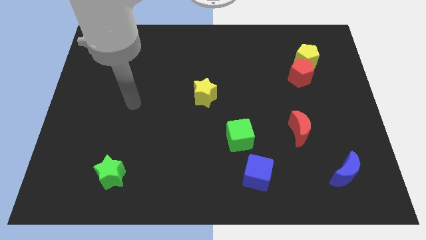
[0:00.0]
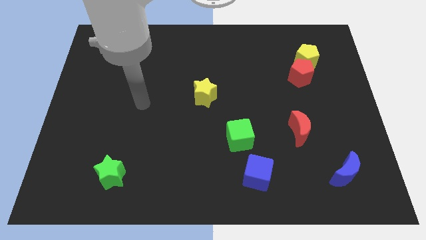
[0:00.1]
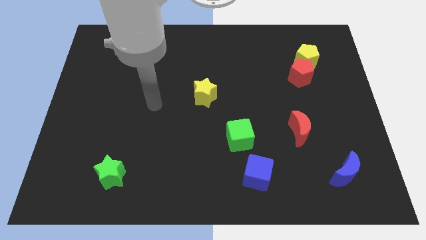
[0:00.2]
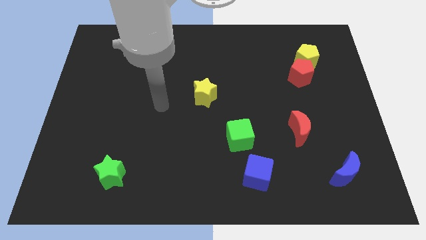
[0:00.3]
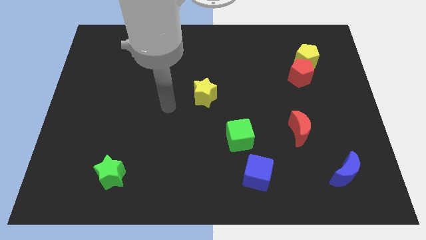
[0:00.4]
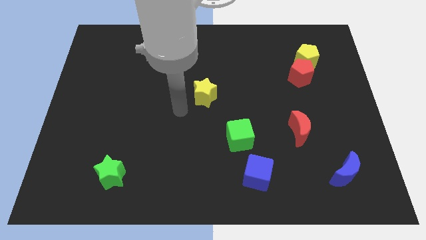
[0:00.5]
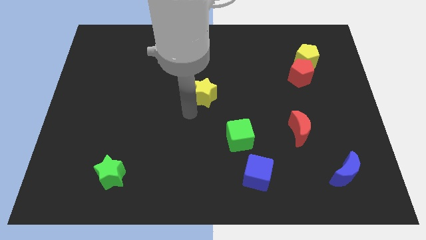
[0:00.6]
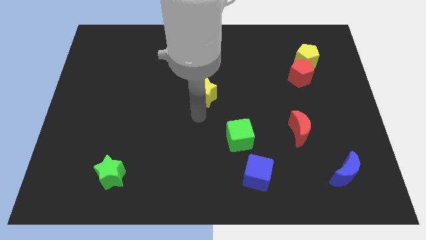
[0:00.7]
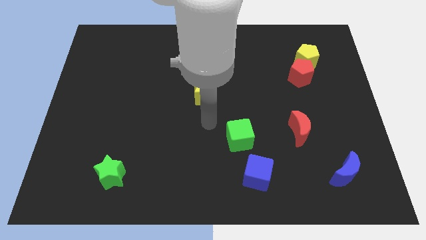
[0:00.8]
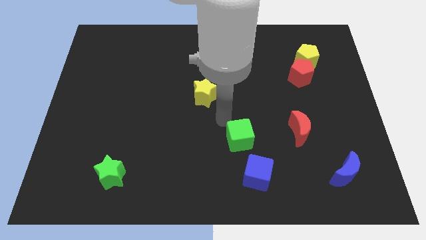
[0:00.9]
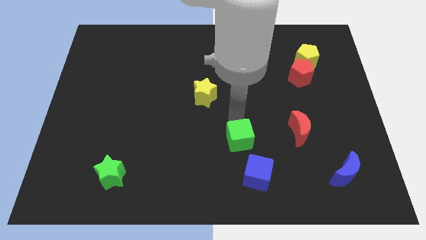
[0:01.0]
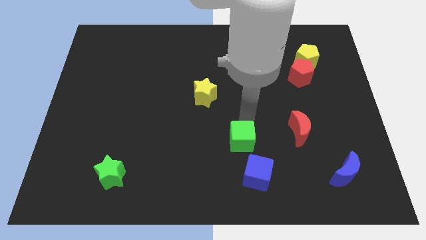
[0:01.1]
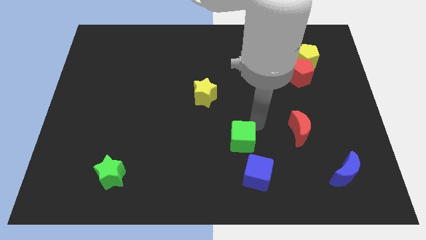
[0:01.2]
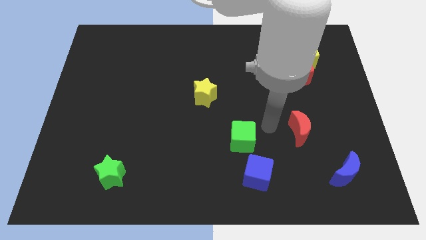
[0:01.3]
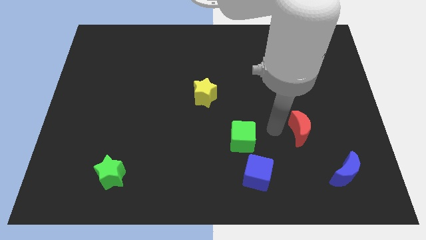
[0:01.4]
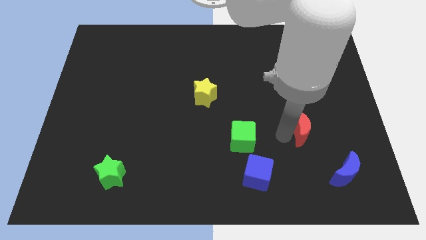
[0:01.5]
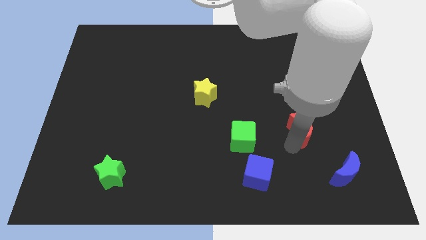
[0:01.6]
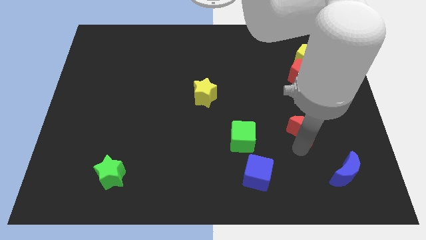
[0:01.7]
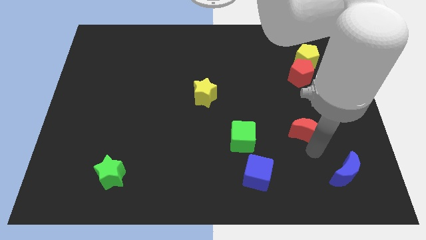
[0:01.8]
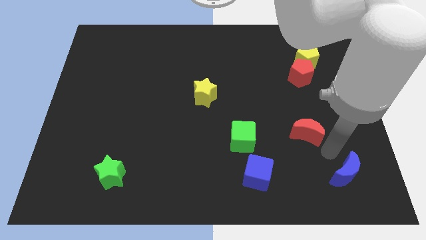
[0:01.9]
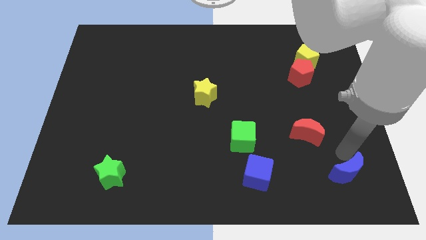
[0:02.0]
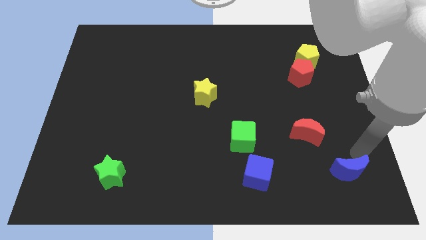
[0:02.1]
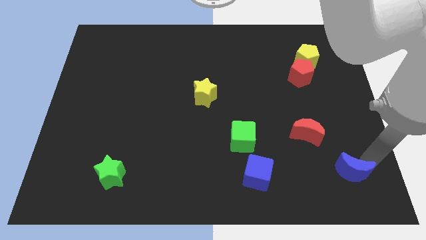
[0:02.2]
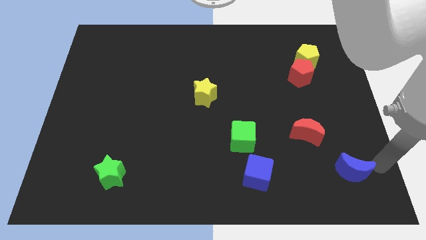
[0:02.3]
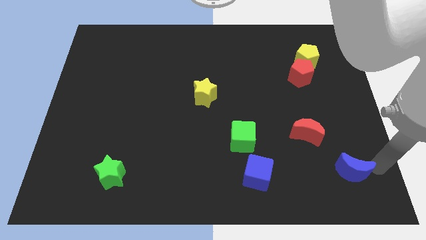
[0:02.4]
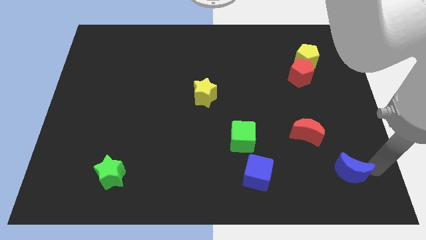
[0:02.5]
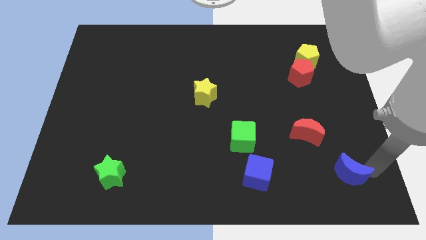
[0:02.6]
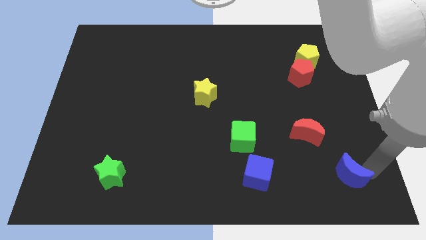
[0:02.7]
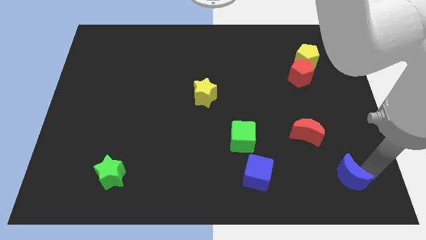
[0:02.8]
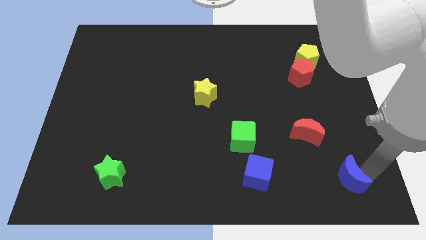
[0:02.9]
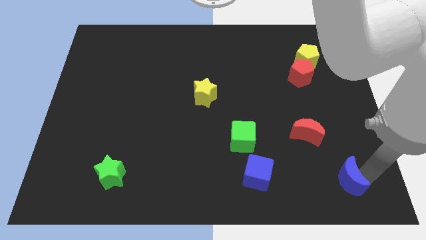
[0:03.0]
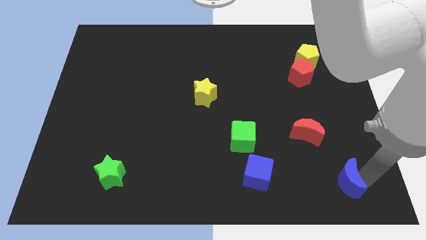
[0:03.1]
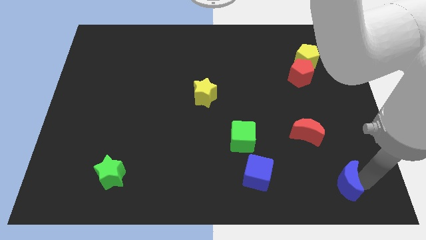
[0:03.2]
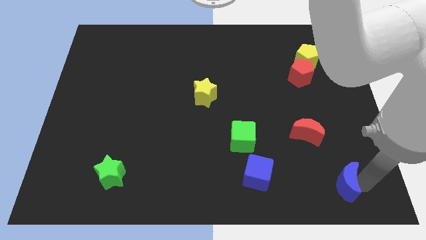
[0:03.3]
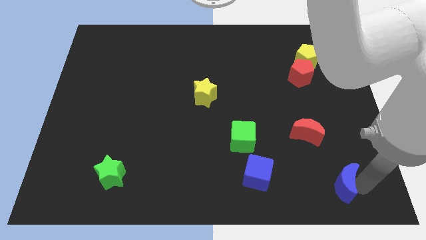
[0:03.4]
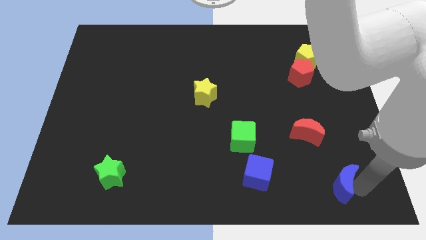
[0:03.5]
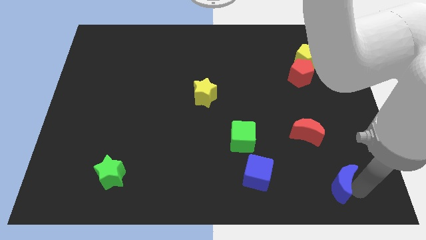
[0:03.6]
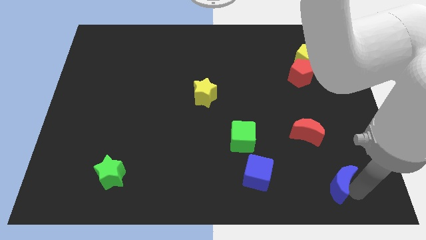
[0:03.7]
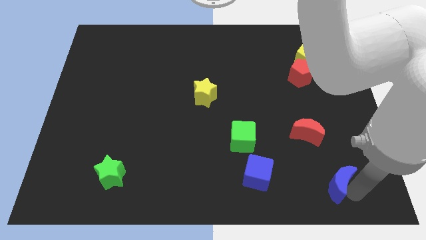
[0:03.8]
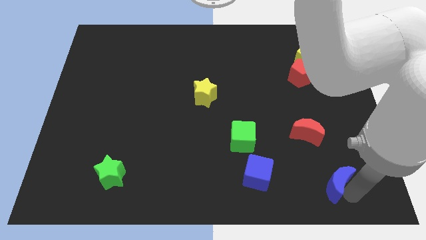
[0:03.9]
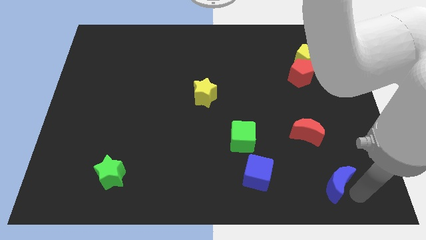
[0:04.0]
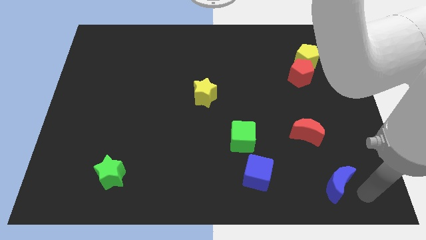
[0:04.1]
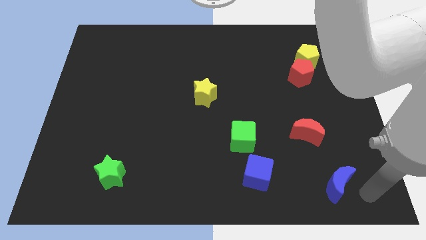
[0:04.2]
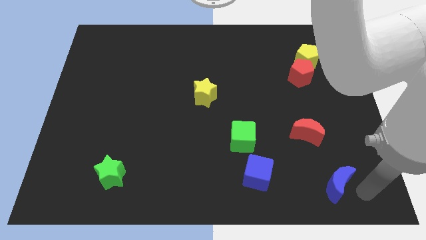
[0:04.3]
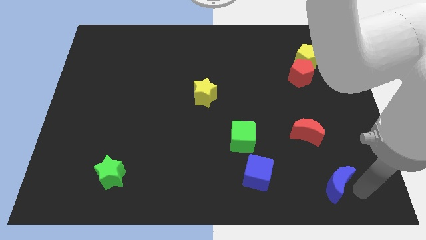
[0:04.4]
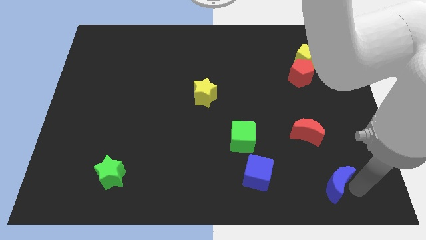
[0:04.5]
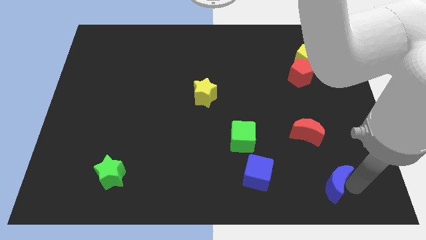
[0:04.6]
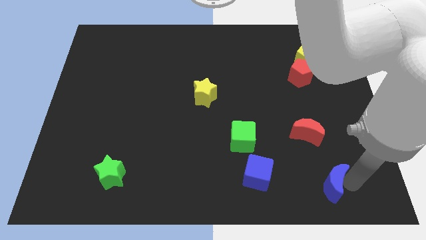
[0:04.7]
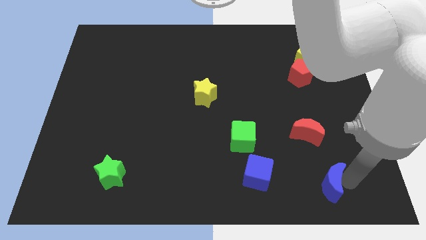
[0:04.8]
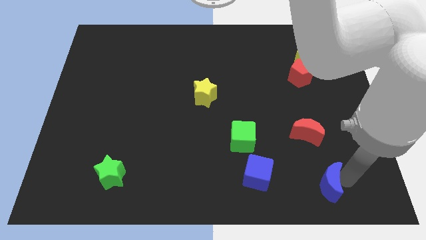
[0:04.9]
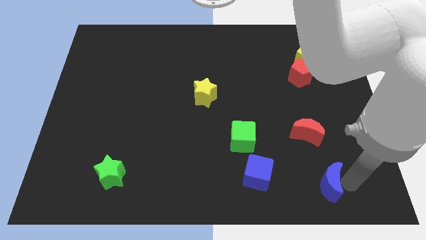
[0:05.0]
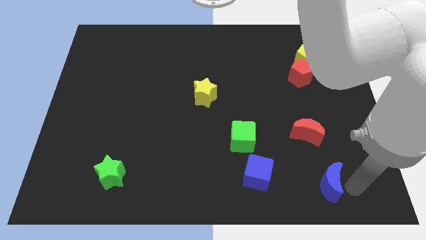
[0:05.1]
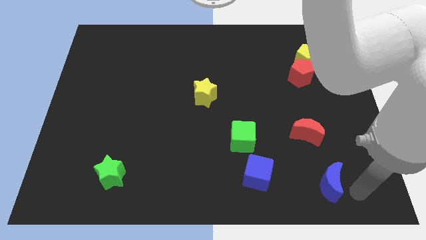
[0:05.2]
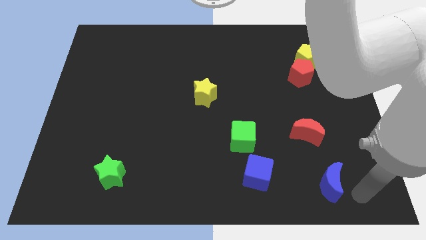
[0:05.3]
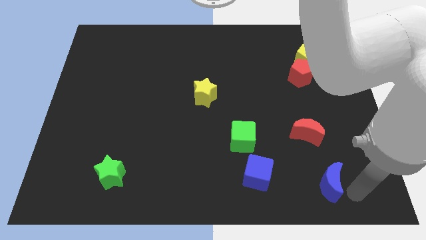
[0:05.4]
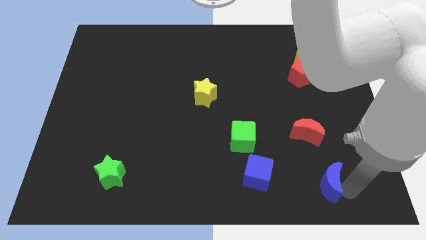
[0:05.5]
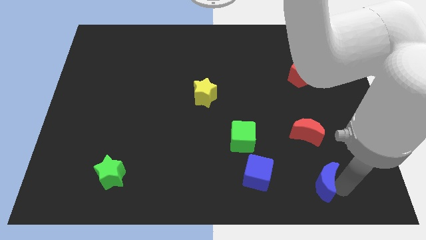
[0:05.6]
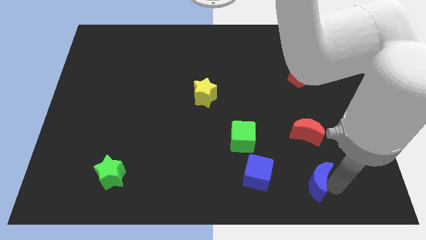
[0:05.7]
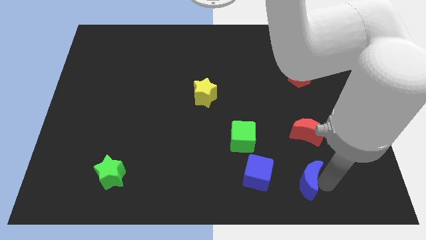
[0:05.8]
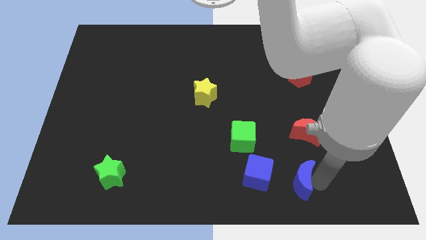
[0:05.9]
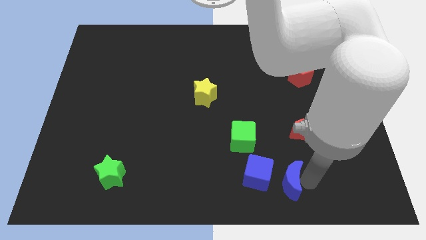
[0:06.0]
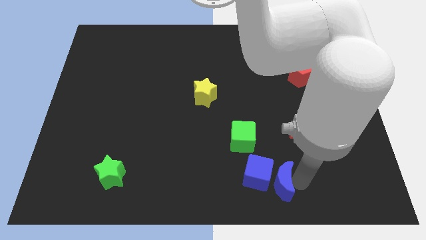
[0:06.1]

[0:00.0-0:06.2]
move the blue moon close to the blue cube

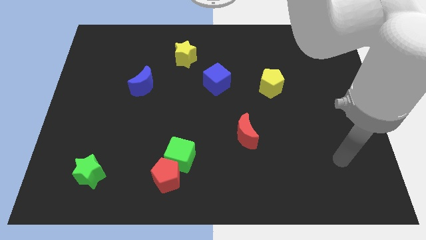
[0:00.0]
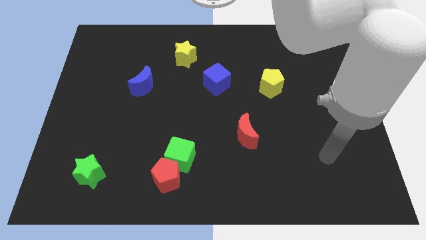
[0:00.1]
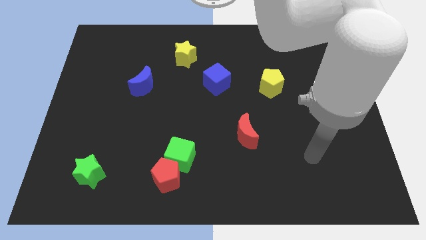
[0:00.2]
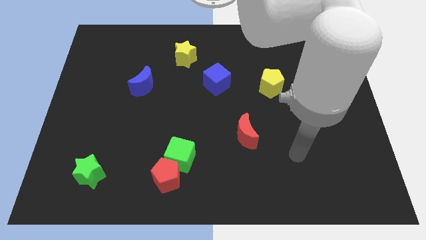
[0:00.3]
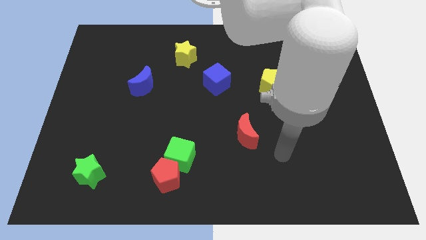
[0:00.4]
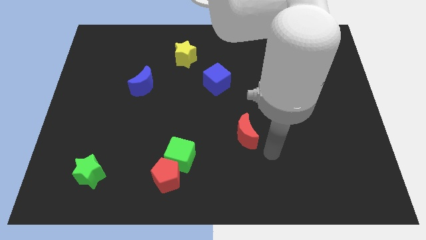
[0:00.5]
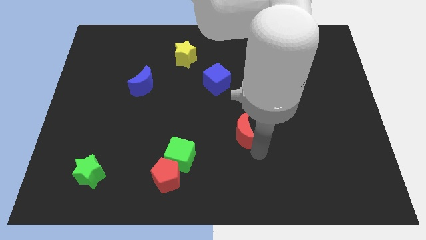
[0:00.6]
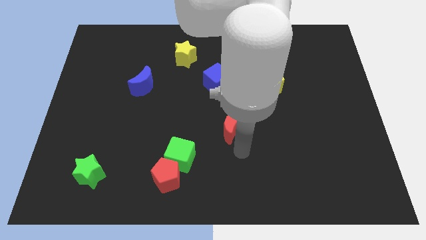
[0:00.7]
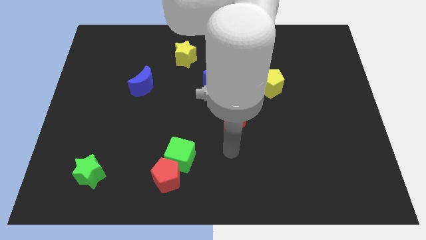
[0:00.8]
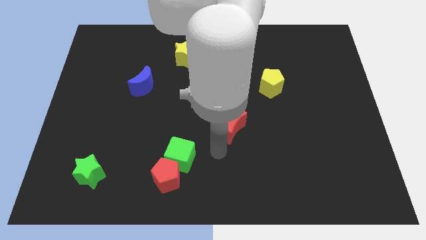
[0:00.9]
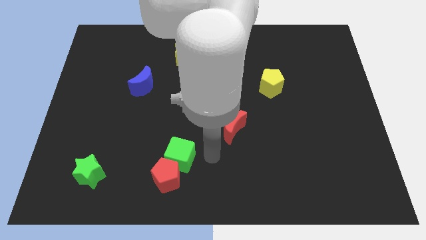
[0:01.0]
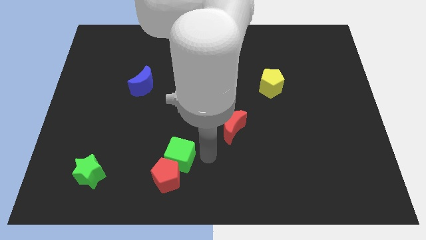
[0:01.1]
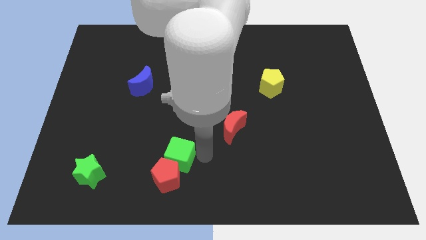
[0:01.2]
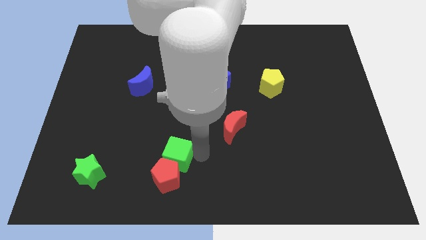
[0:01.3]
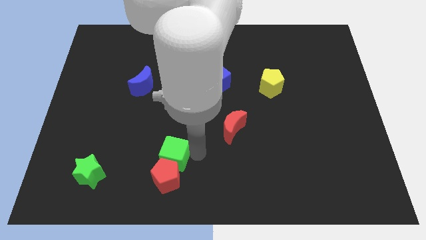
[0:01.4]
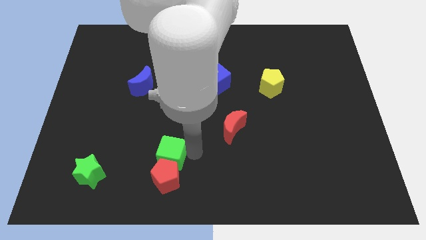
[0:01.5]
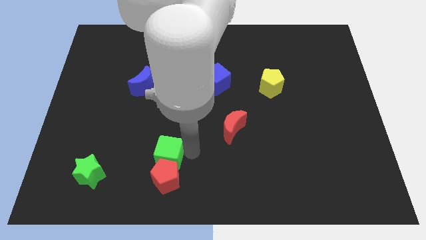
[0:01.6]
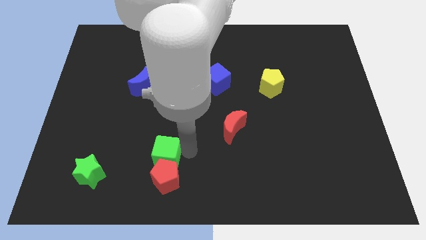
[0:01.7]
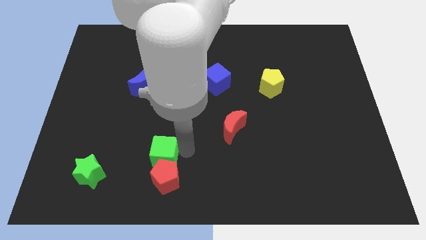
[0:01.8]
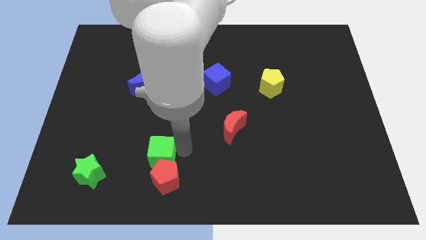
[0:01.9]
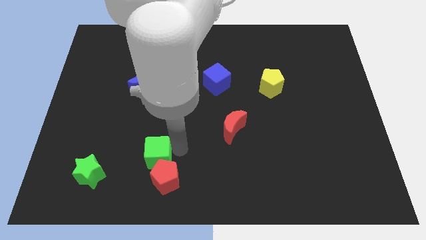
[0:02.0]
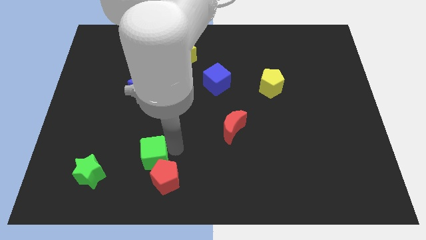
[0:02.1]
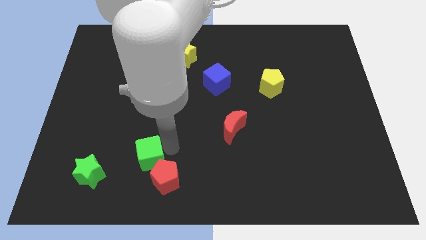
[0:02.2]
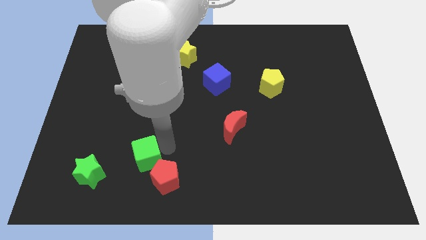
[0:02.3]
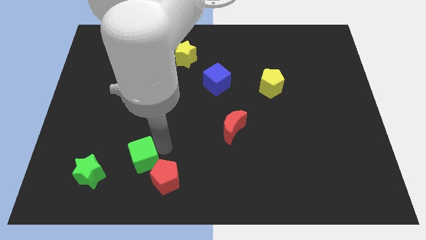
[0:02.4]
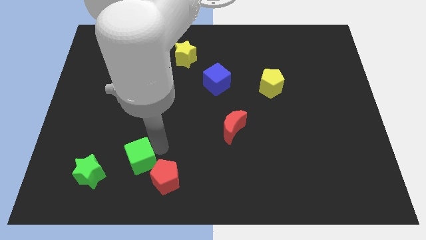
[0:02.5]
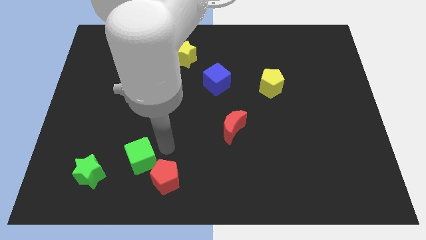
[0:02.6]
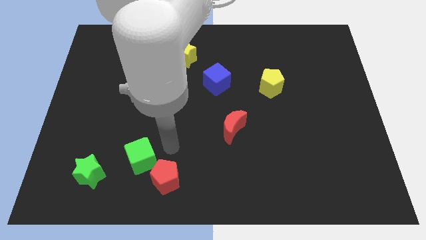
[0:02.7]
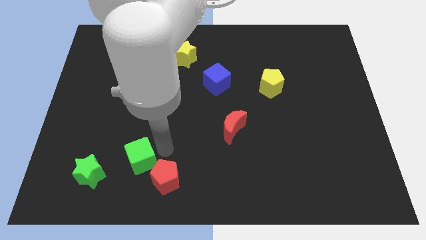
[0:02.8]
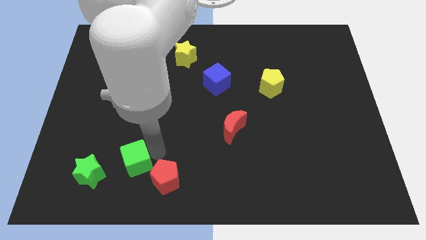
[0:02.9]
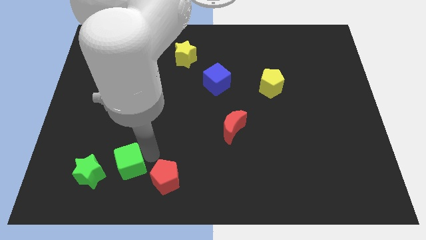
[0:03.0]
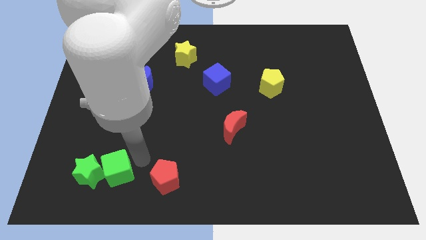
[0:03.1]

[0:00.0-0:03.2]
put the green cube close to the green star
